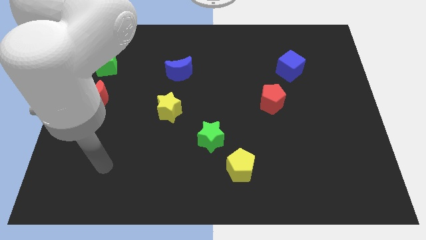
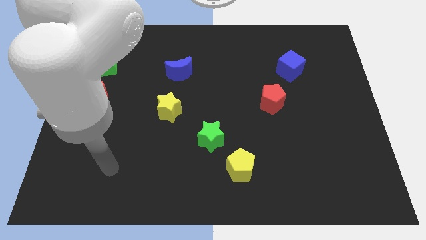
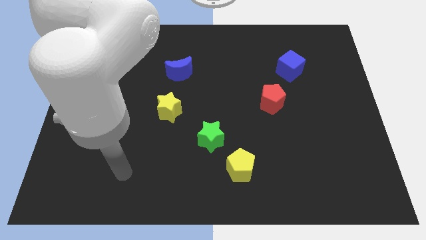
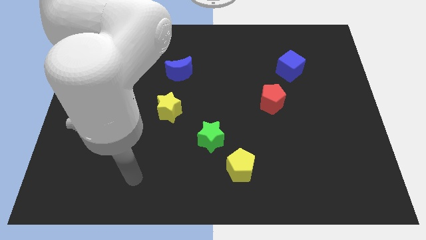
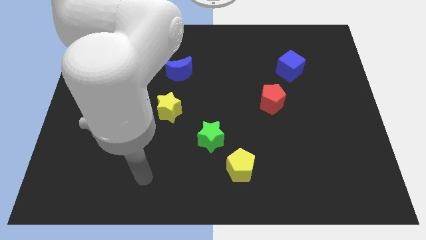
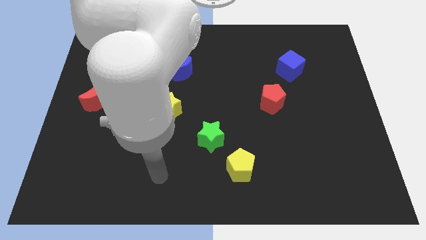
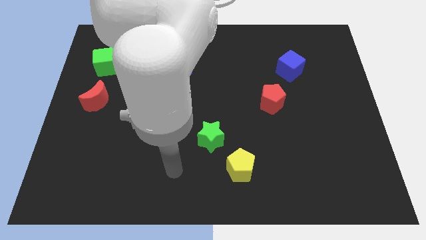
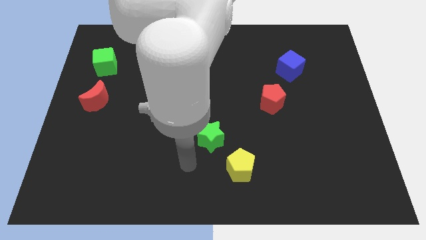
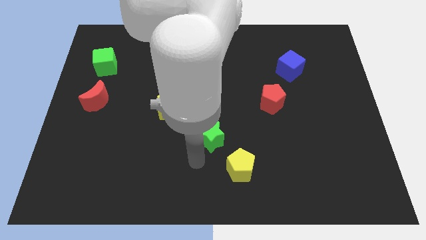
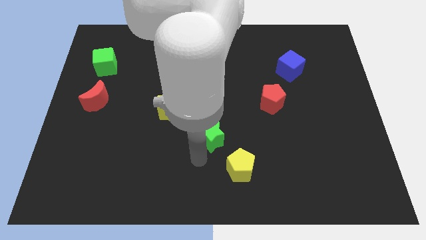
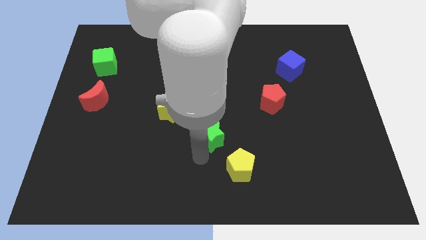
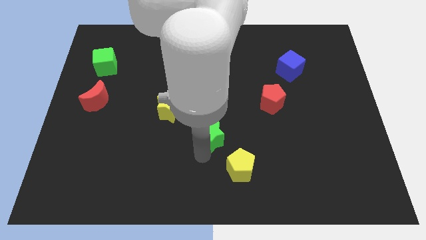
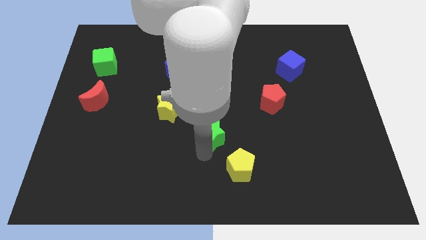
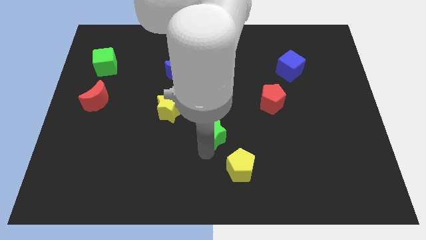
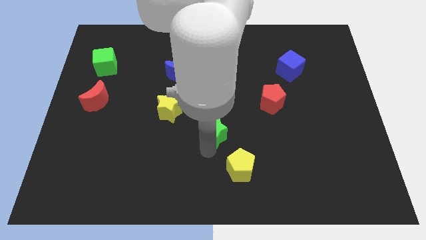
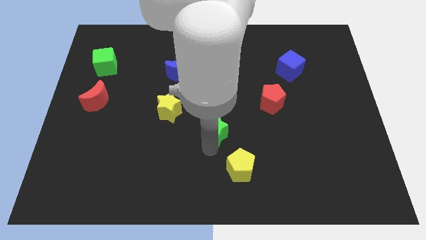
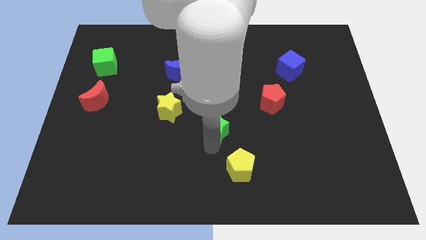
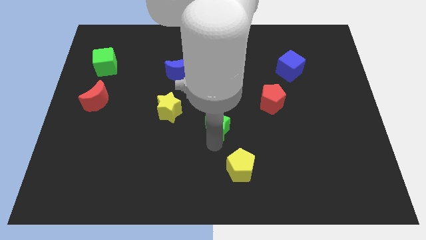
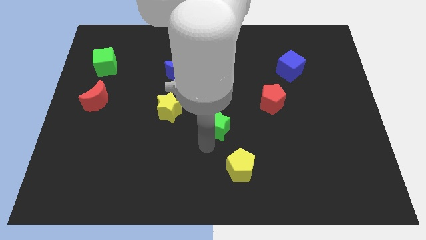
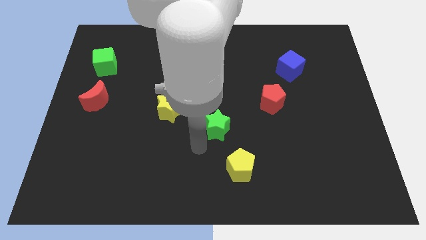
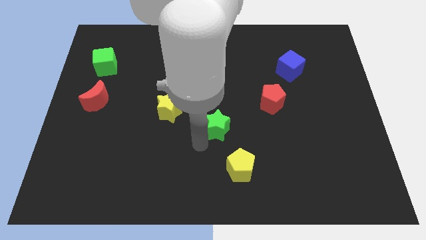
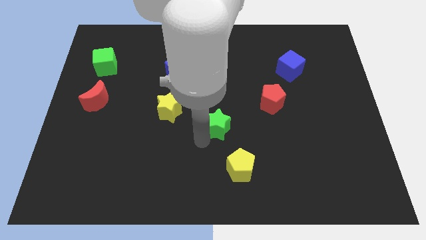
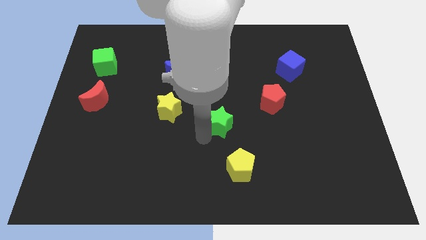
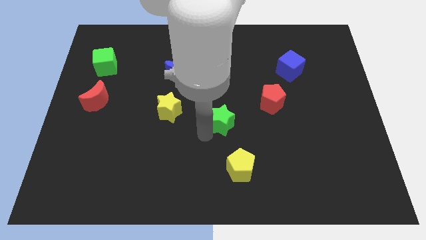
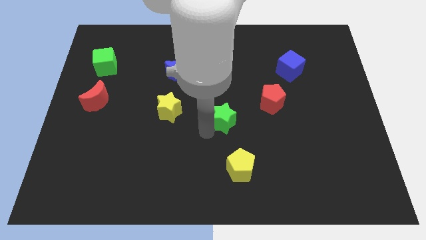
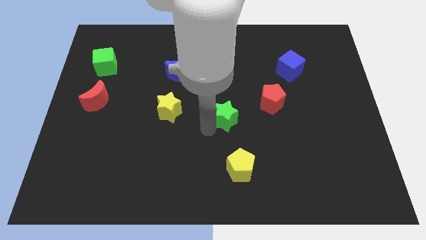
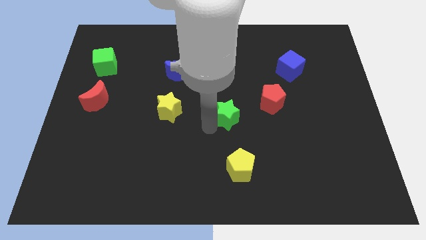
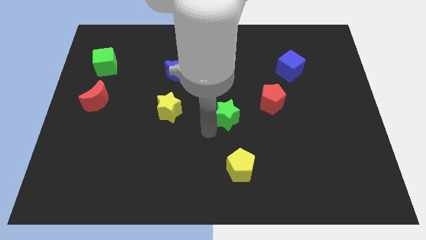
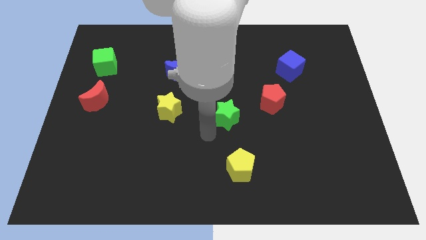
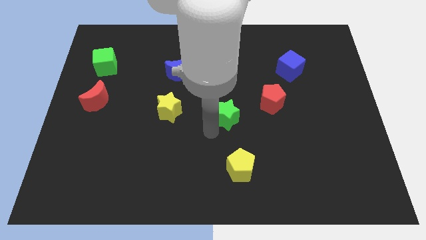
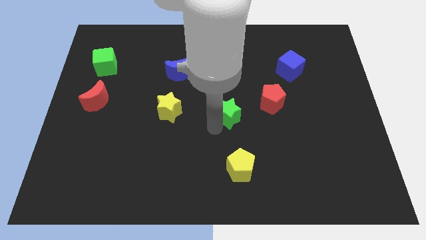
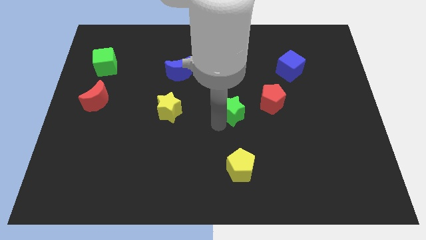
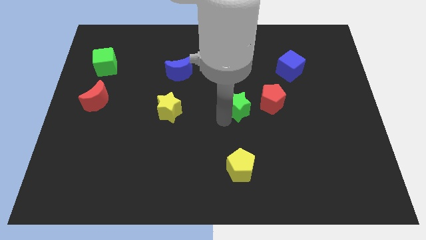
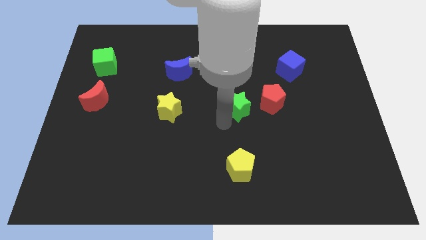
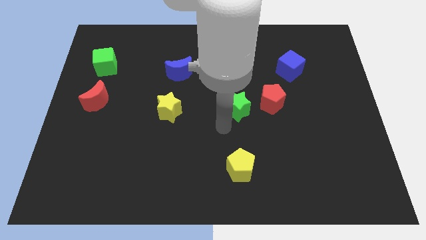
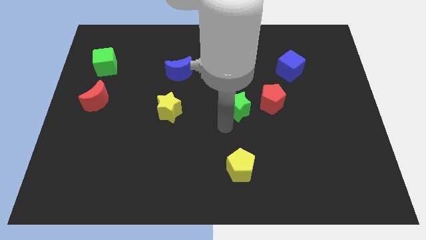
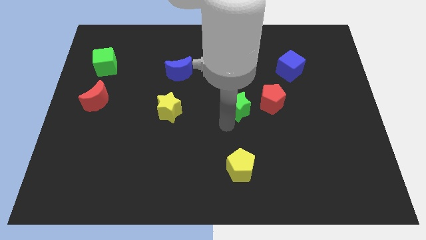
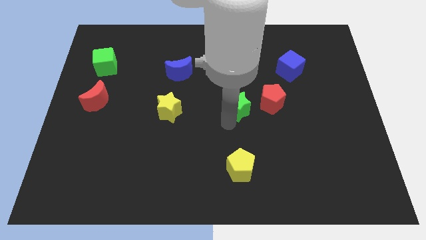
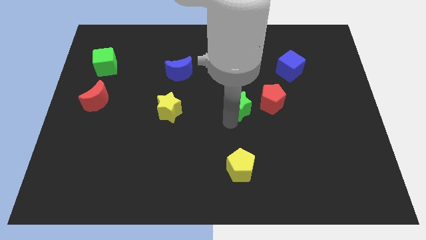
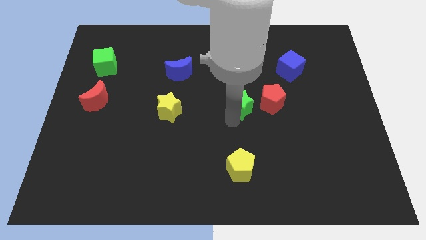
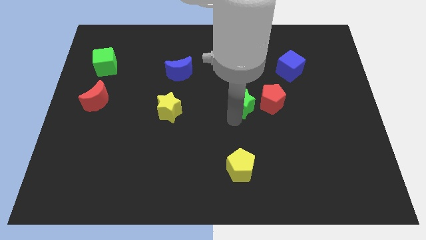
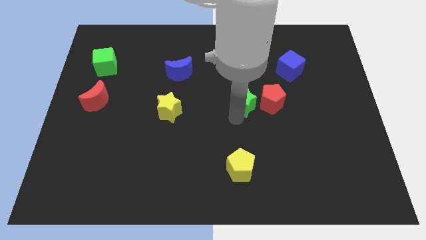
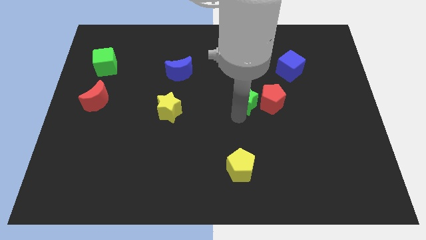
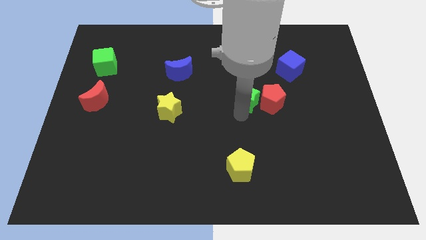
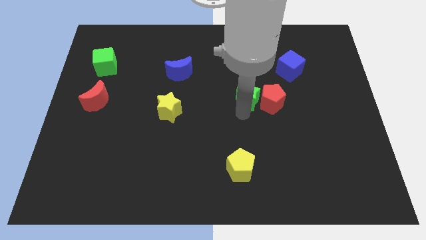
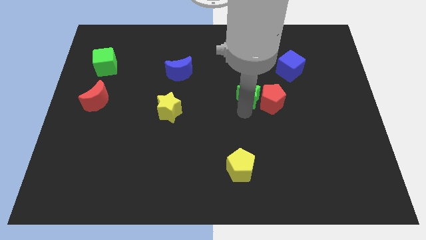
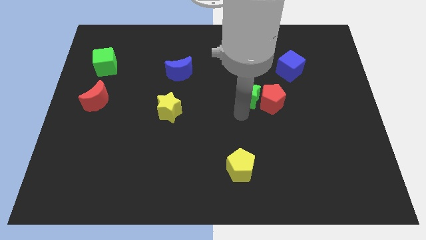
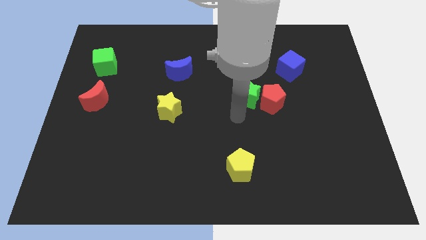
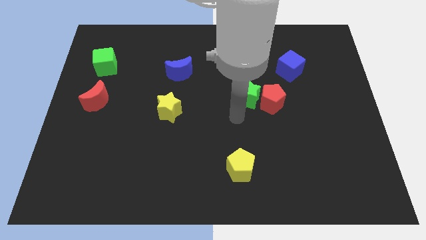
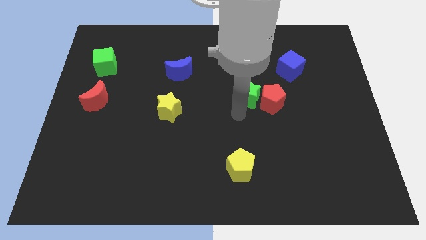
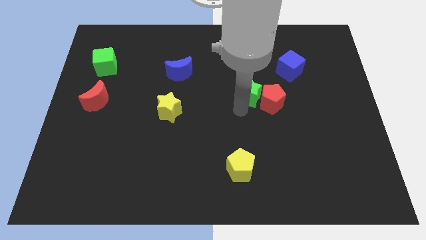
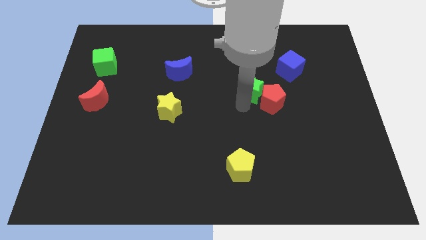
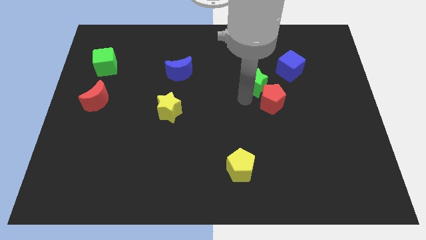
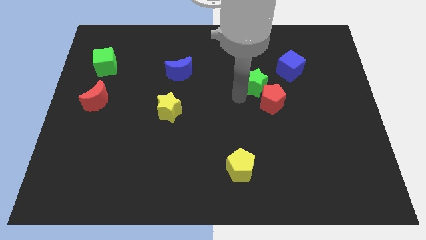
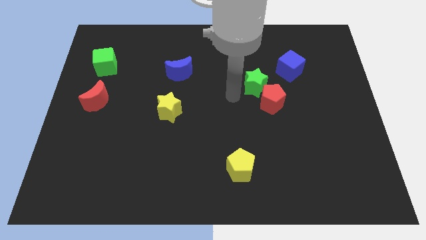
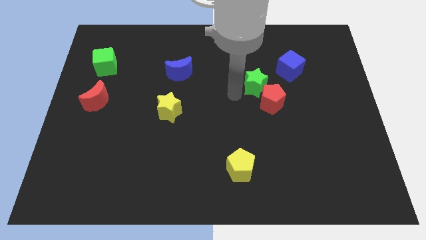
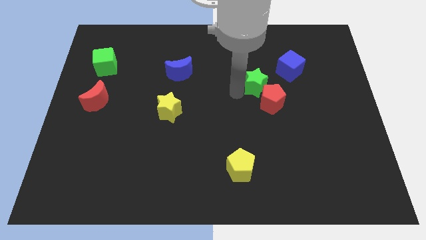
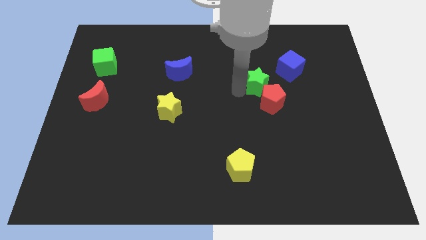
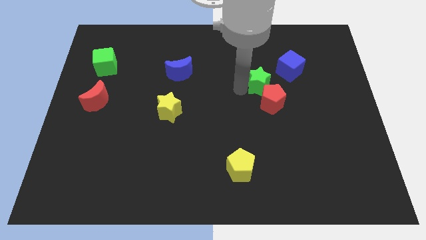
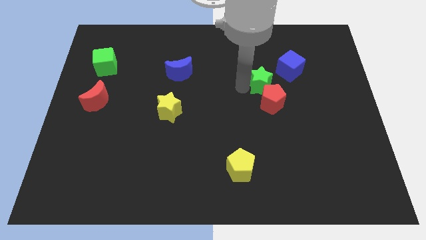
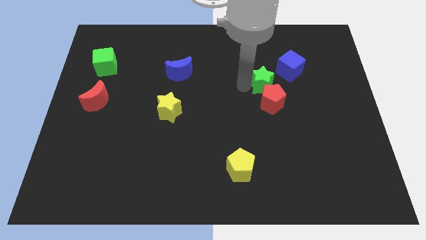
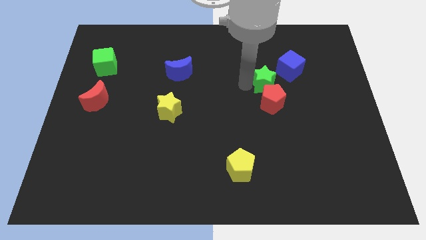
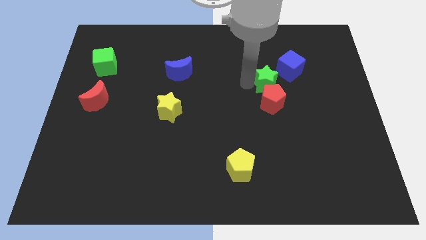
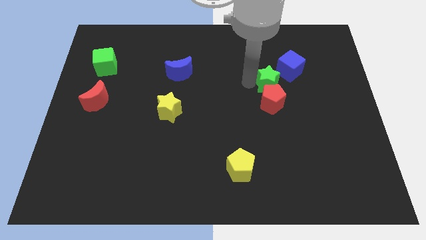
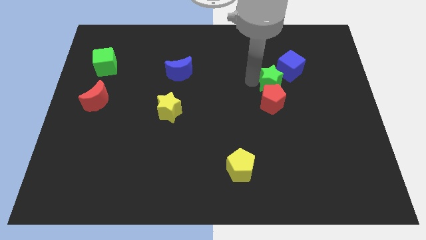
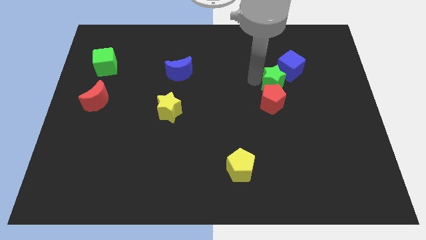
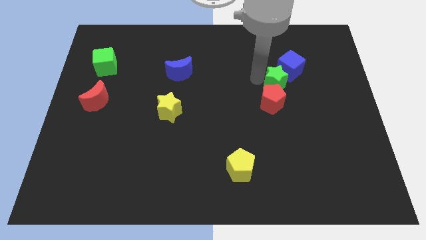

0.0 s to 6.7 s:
put the green star close to the blue cube

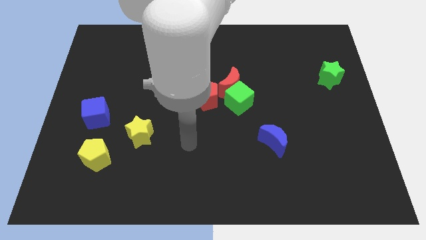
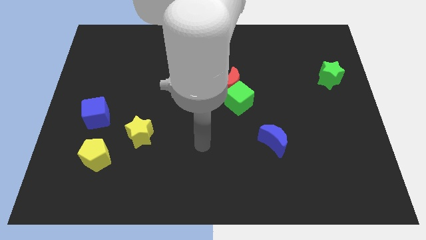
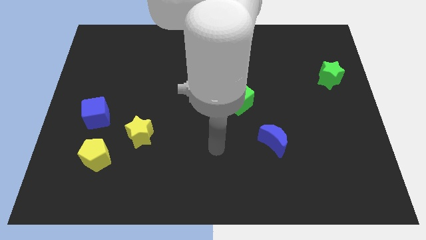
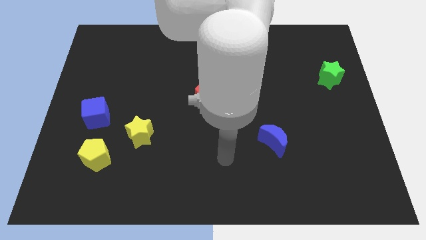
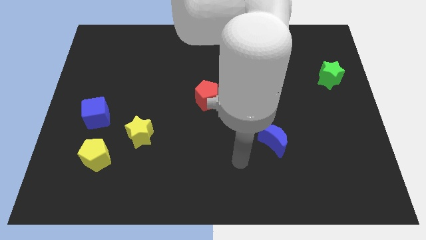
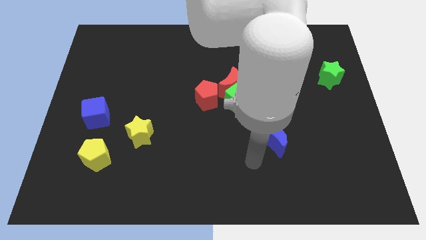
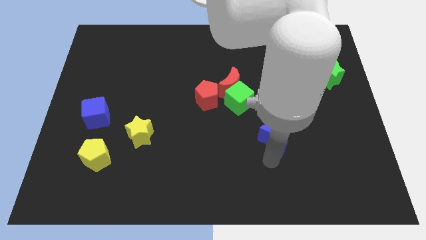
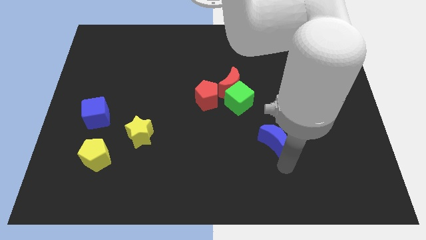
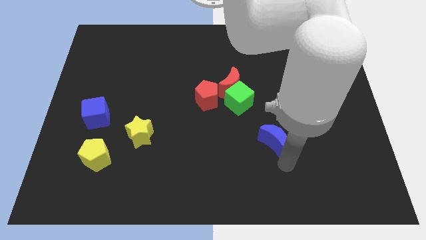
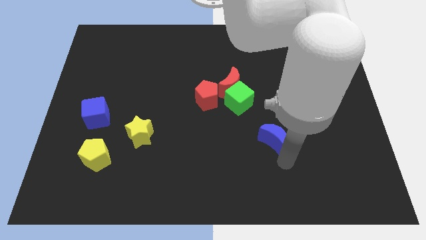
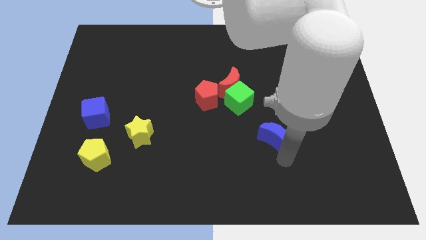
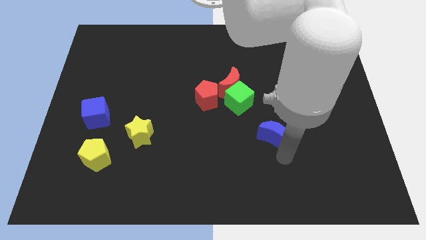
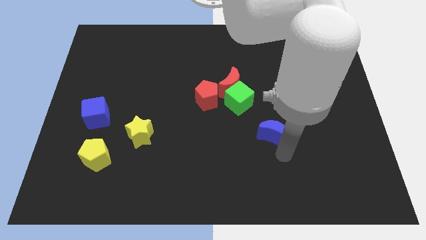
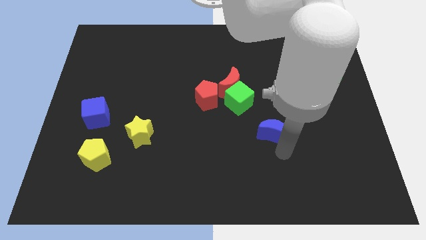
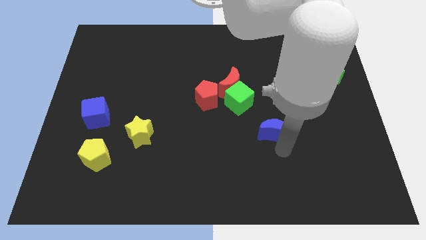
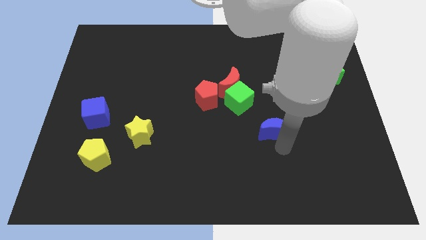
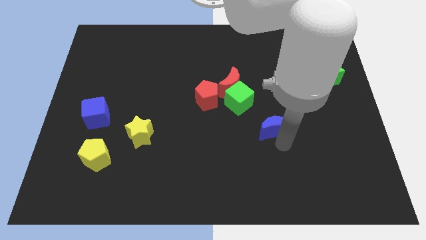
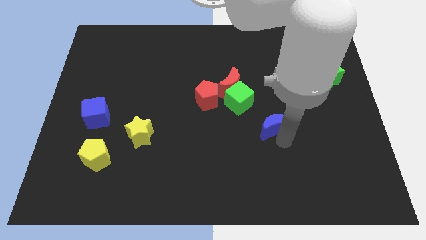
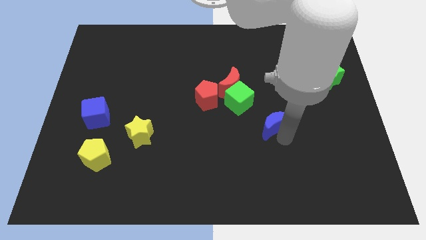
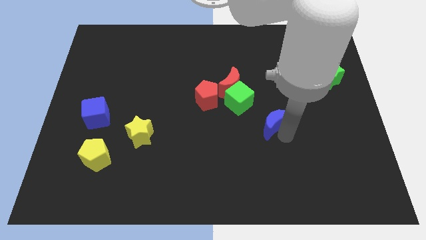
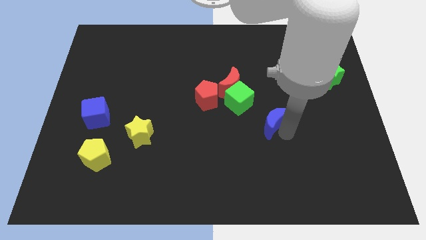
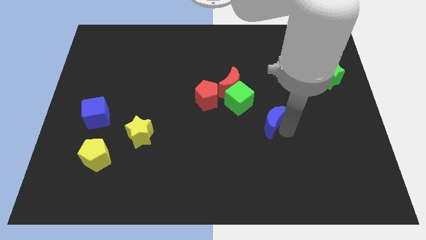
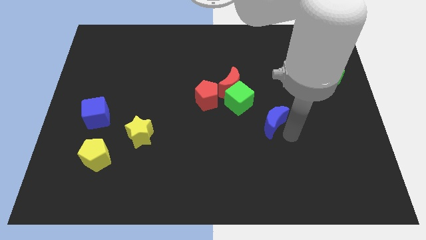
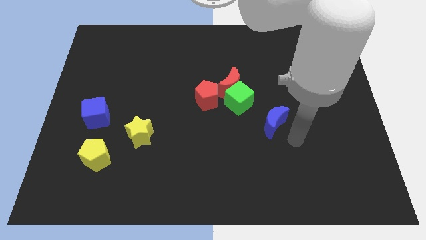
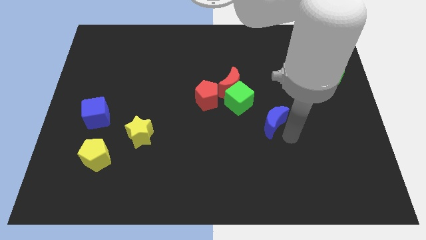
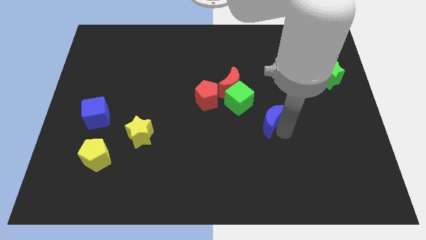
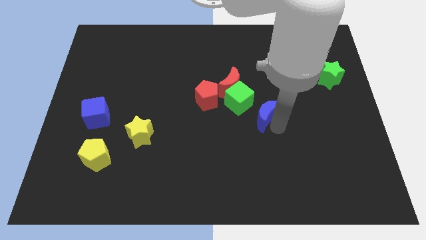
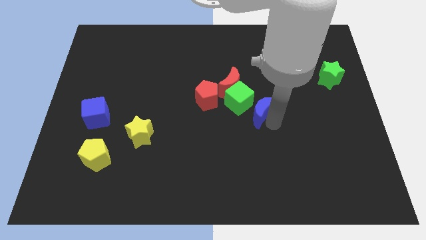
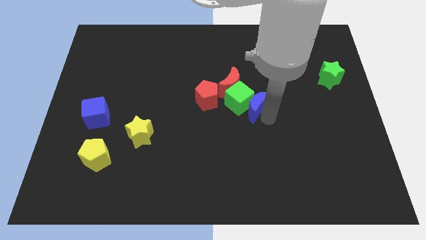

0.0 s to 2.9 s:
slide the blue moon next to the green cube
